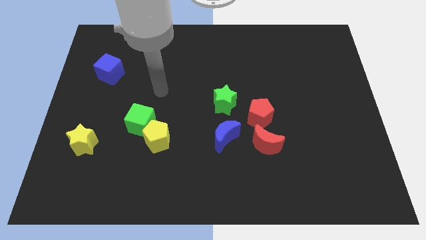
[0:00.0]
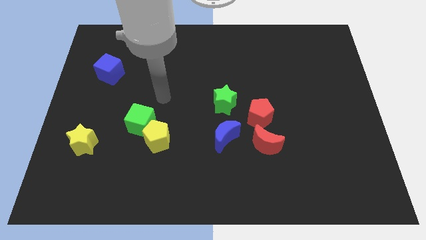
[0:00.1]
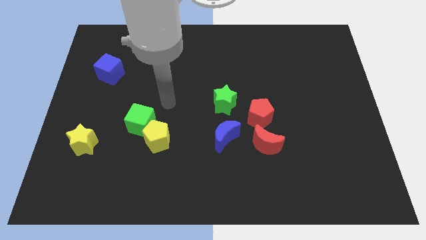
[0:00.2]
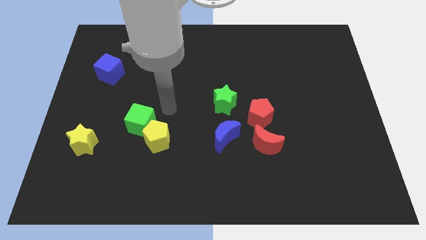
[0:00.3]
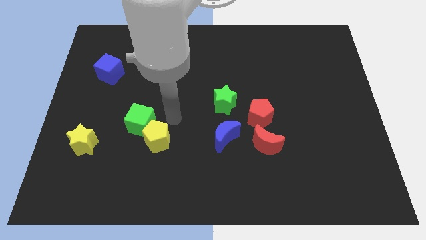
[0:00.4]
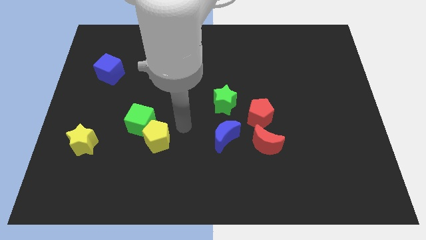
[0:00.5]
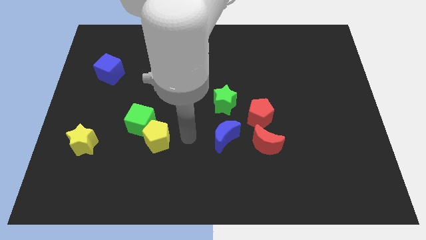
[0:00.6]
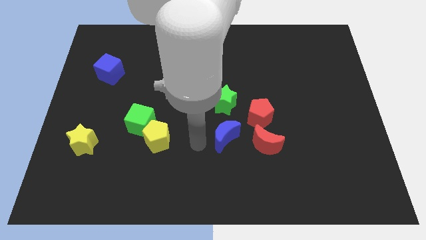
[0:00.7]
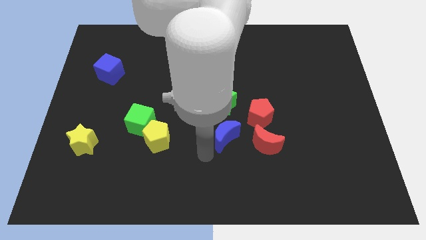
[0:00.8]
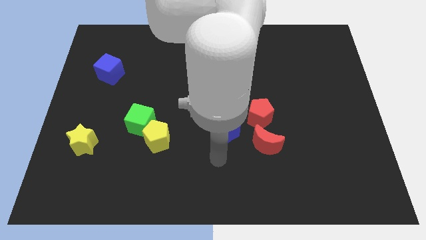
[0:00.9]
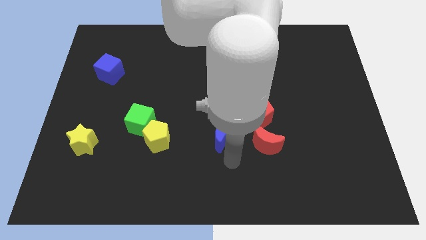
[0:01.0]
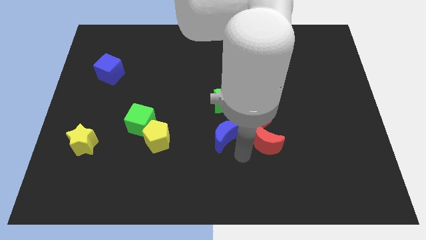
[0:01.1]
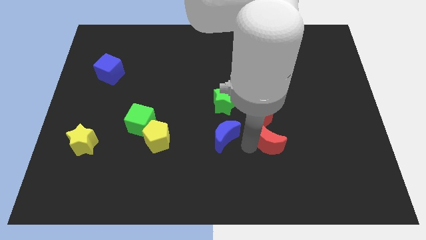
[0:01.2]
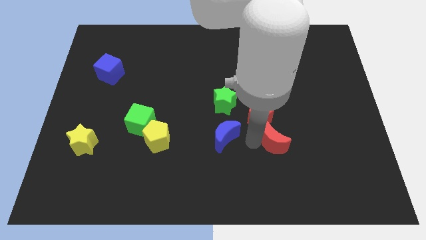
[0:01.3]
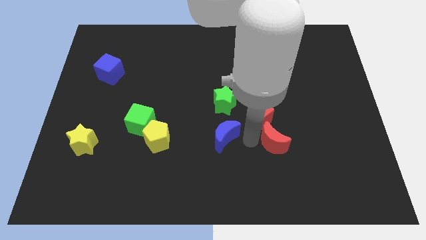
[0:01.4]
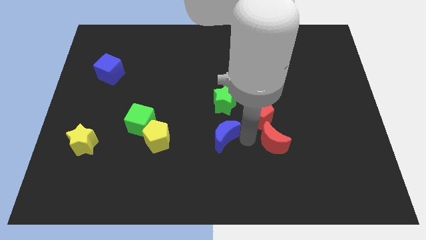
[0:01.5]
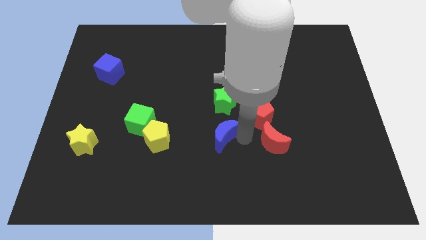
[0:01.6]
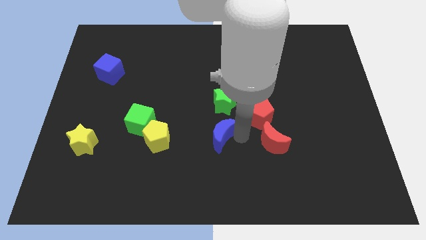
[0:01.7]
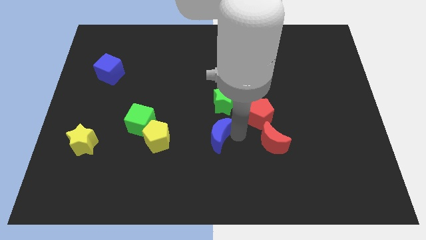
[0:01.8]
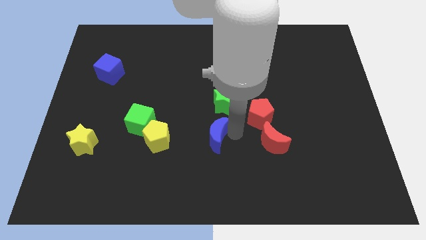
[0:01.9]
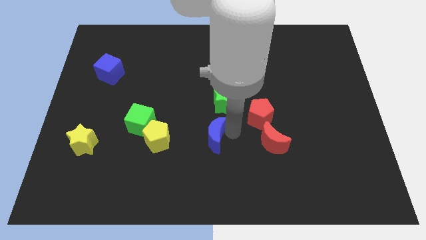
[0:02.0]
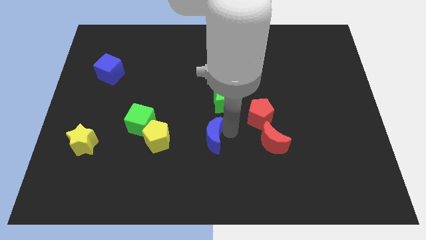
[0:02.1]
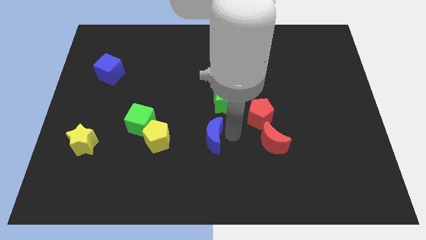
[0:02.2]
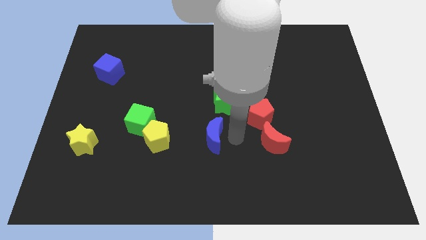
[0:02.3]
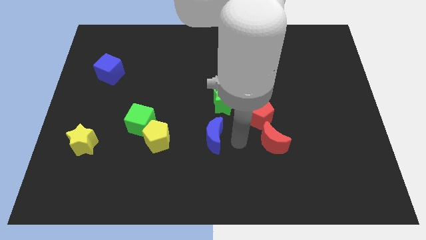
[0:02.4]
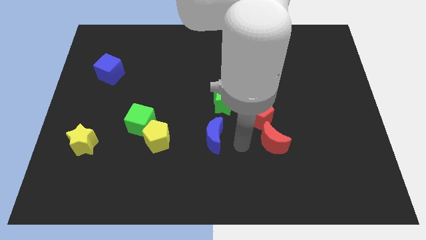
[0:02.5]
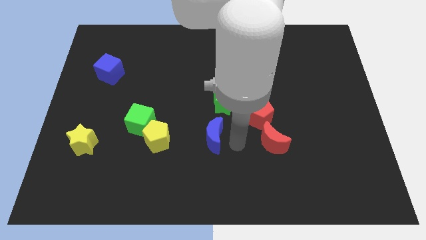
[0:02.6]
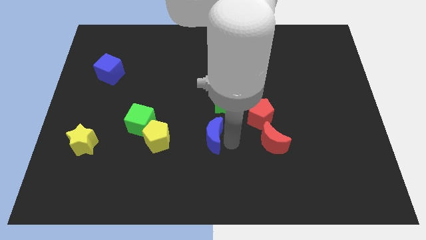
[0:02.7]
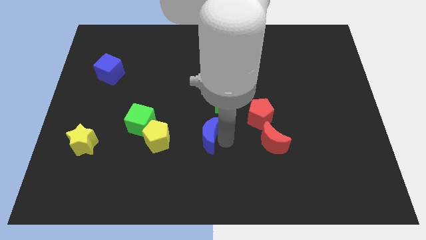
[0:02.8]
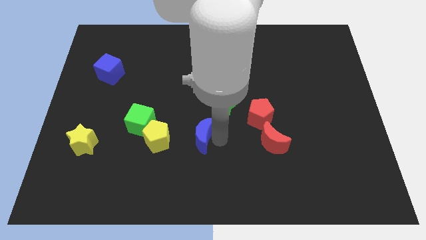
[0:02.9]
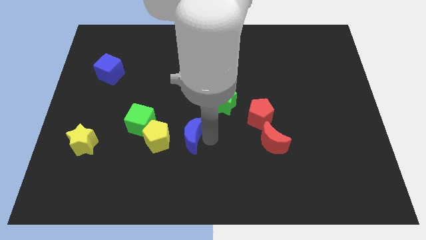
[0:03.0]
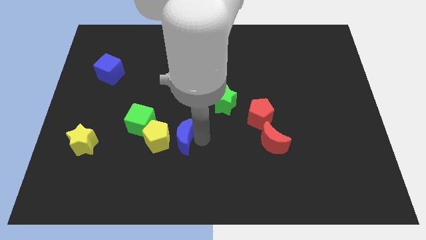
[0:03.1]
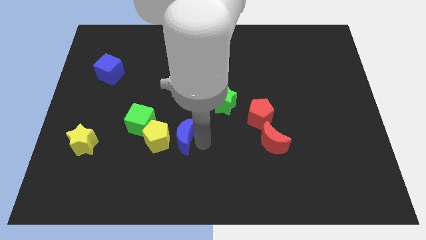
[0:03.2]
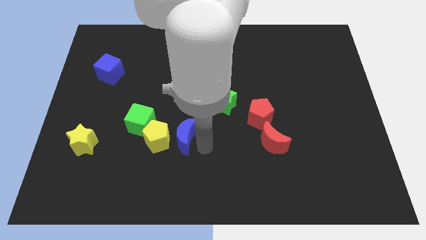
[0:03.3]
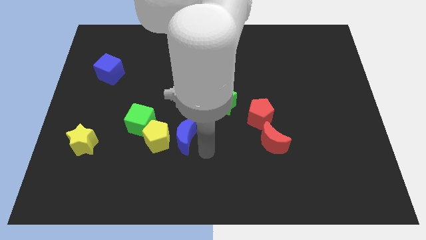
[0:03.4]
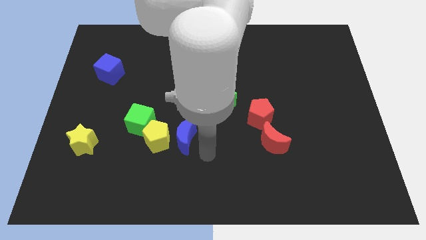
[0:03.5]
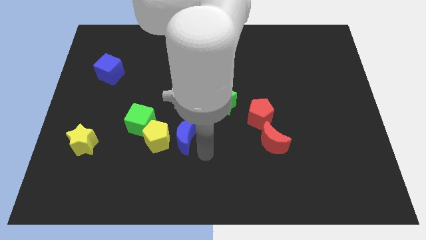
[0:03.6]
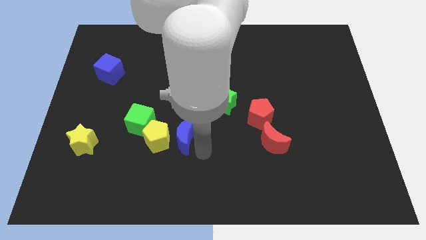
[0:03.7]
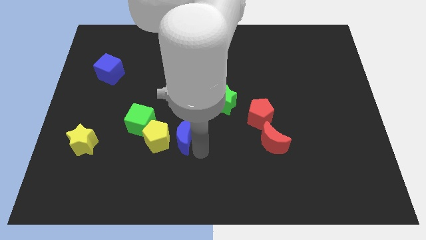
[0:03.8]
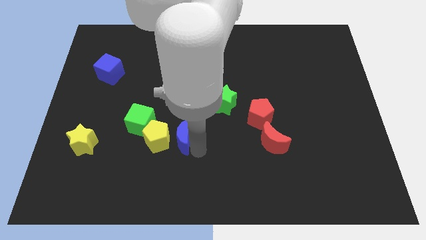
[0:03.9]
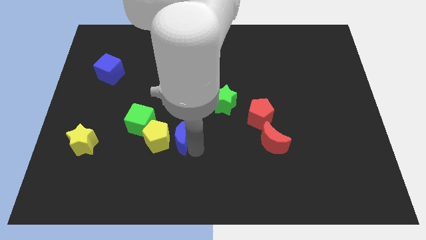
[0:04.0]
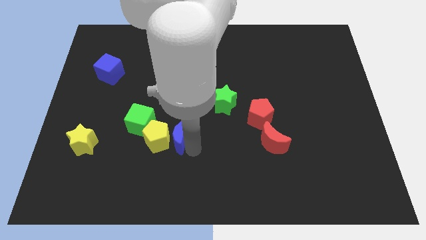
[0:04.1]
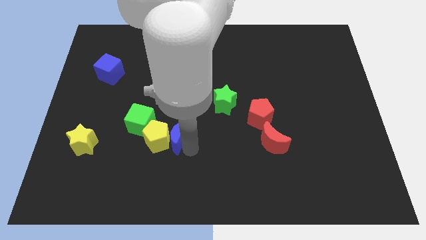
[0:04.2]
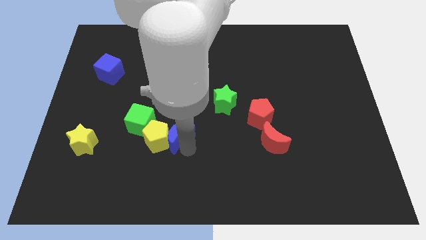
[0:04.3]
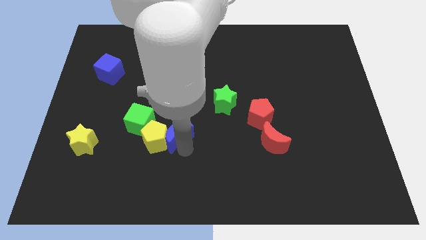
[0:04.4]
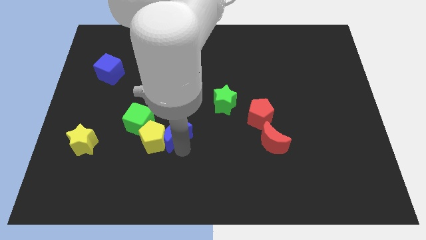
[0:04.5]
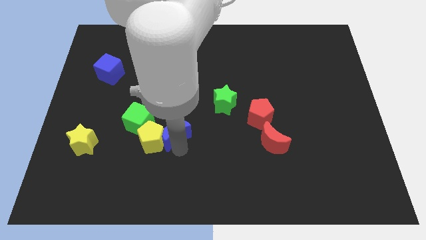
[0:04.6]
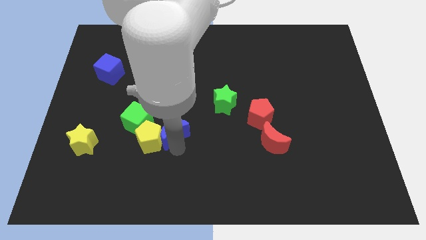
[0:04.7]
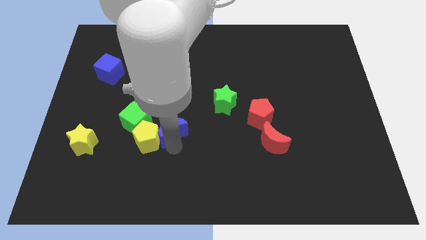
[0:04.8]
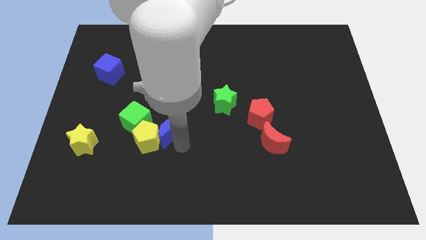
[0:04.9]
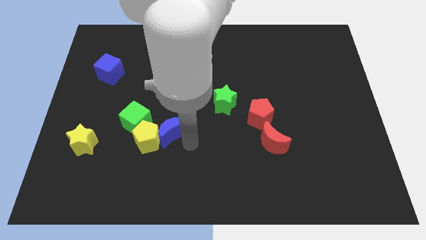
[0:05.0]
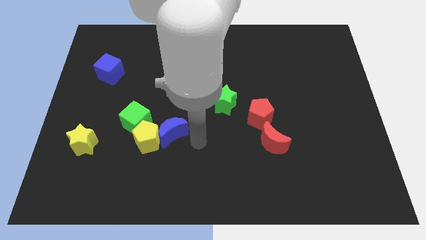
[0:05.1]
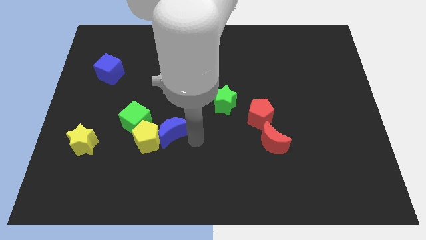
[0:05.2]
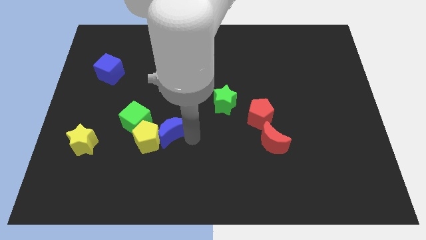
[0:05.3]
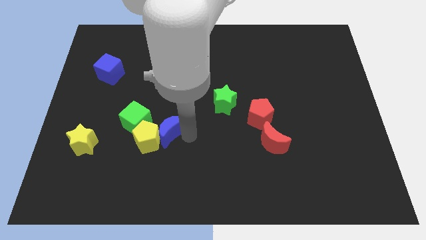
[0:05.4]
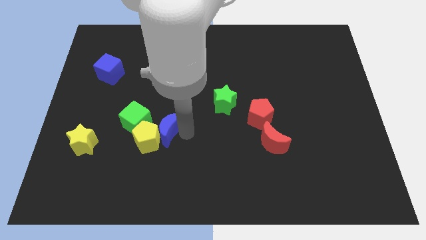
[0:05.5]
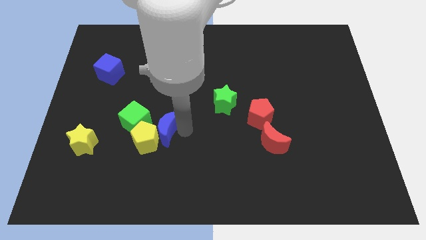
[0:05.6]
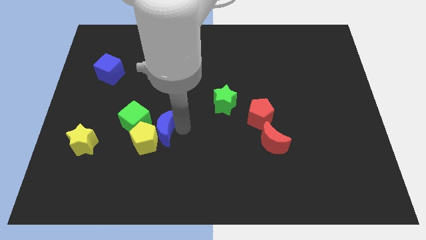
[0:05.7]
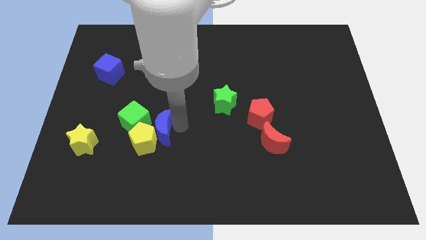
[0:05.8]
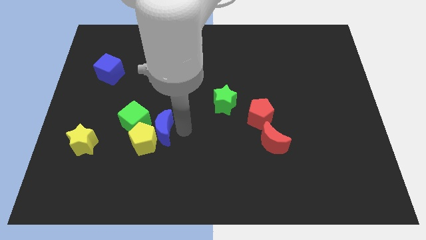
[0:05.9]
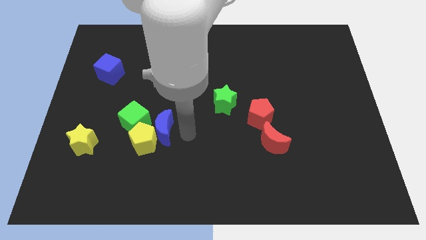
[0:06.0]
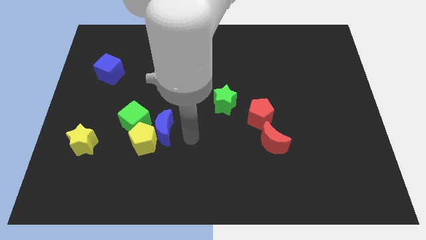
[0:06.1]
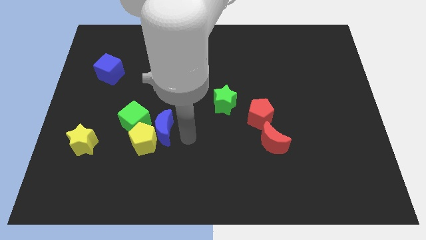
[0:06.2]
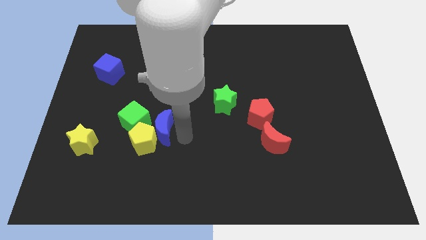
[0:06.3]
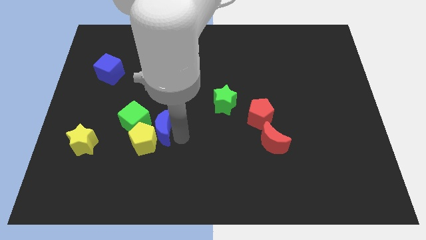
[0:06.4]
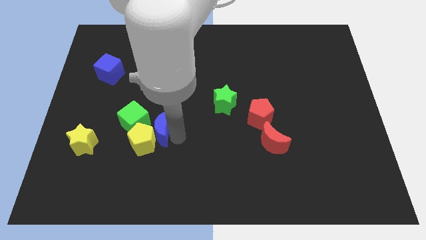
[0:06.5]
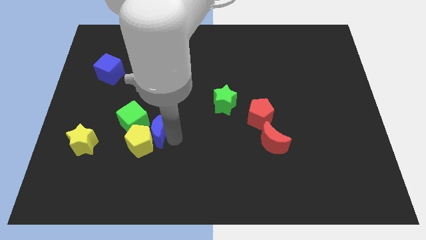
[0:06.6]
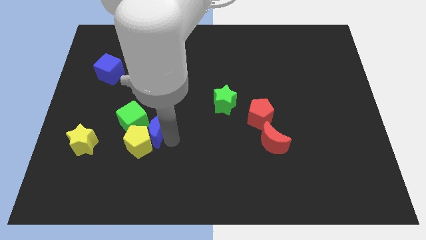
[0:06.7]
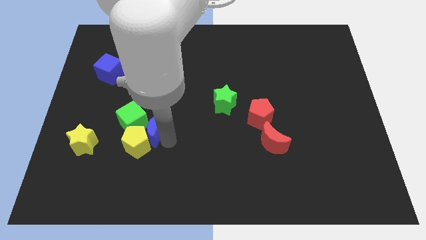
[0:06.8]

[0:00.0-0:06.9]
push the blue moon towards the green cube
